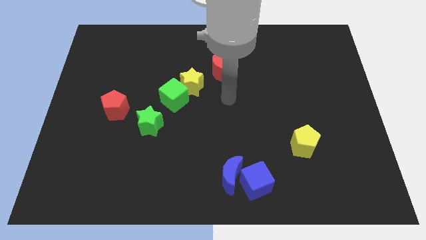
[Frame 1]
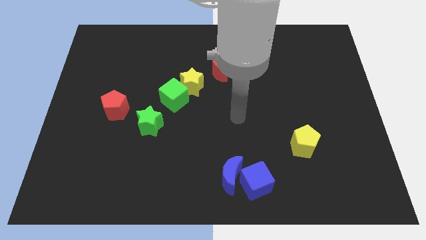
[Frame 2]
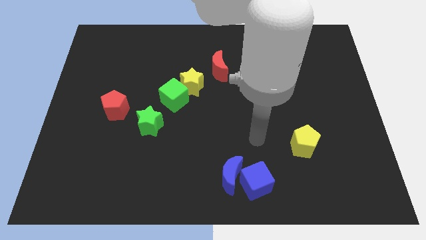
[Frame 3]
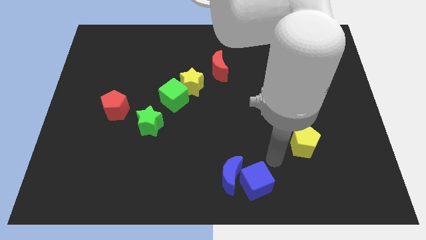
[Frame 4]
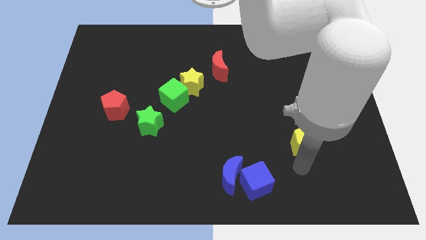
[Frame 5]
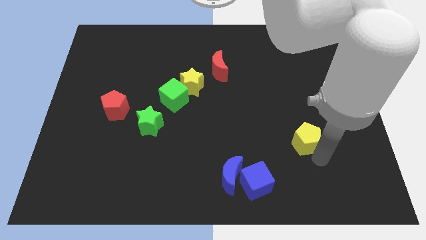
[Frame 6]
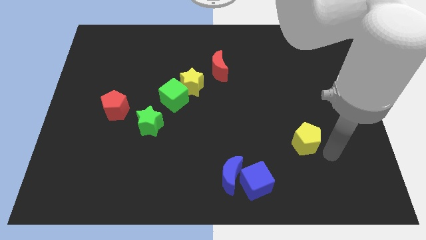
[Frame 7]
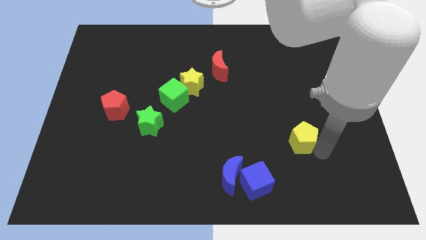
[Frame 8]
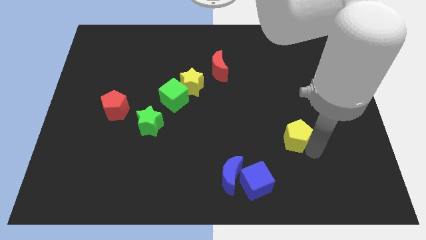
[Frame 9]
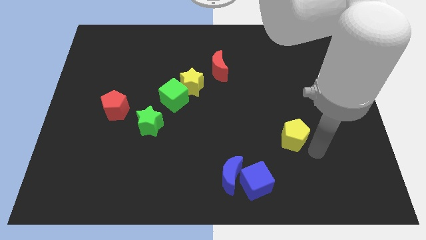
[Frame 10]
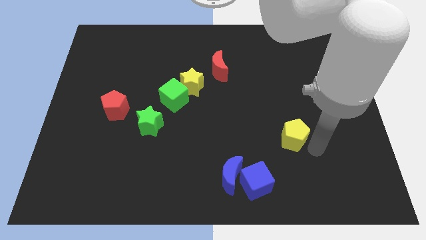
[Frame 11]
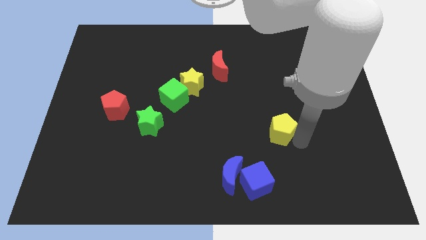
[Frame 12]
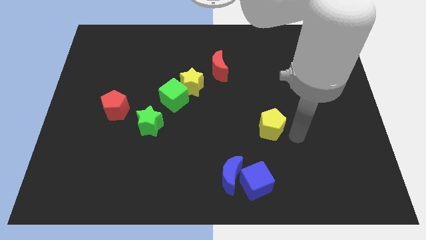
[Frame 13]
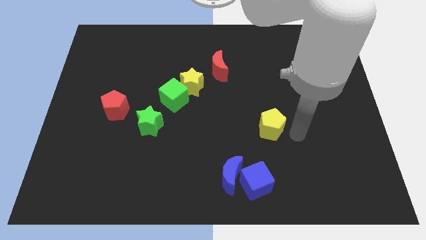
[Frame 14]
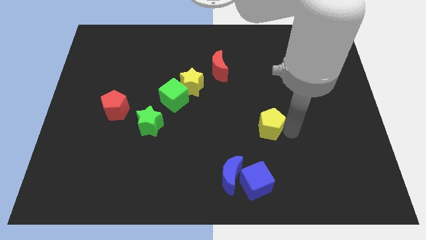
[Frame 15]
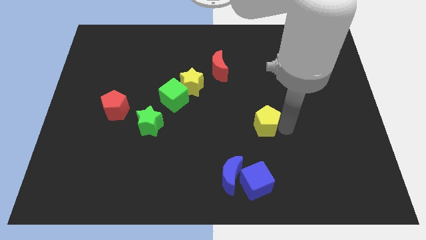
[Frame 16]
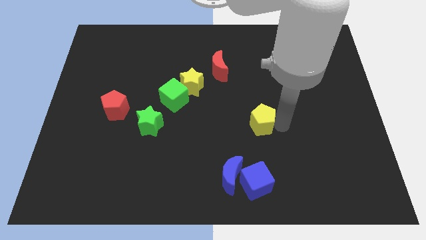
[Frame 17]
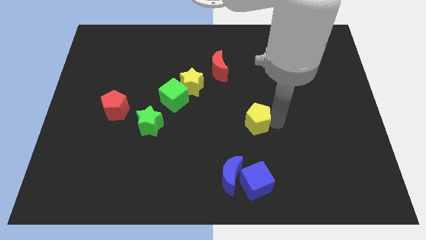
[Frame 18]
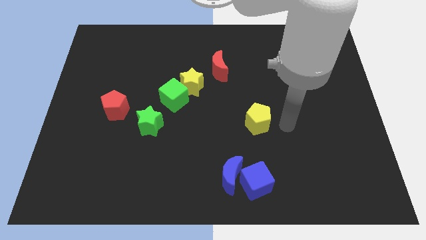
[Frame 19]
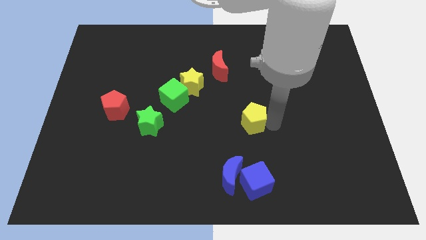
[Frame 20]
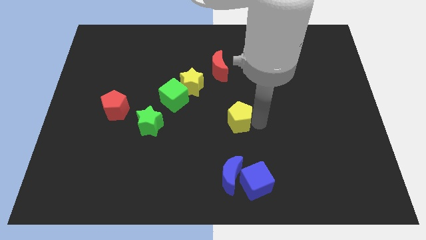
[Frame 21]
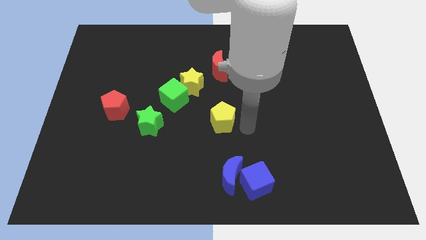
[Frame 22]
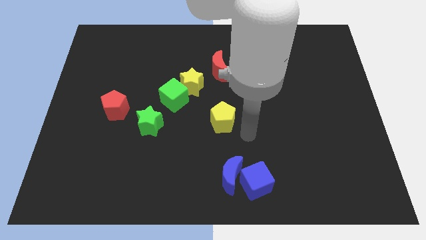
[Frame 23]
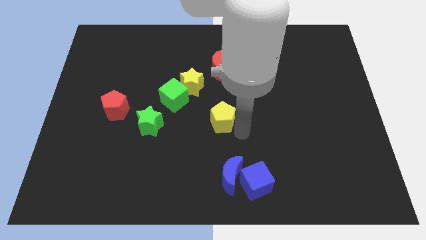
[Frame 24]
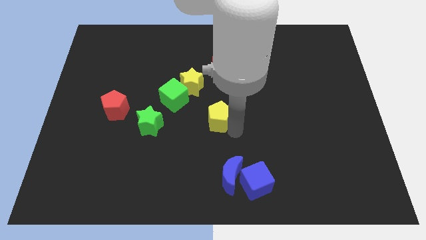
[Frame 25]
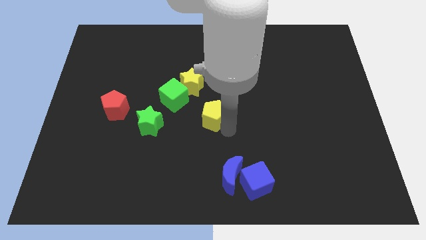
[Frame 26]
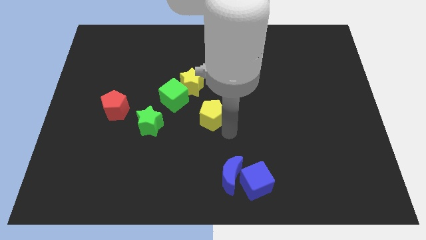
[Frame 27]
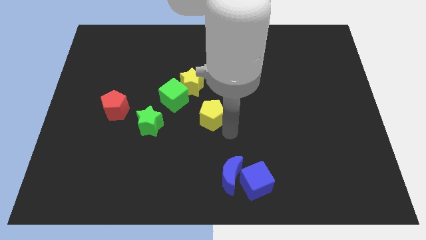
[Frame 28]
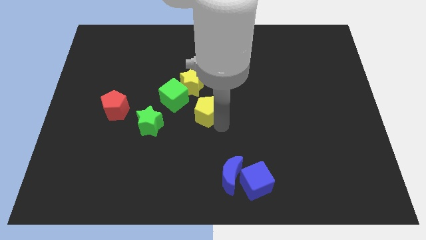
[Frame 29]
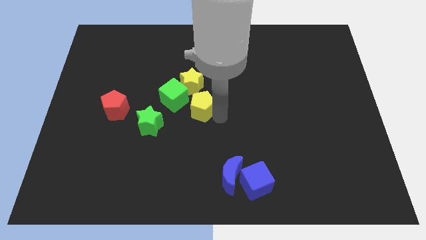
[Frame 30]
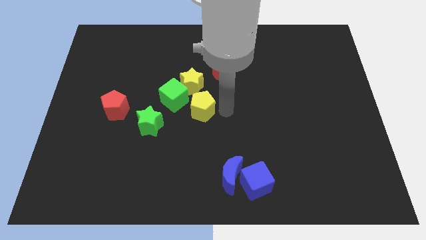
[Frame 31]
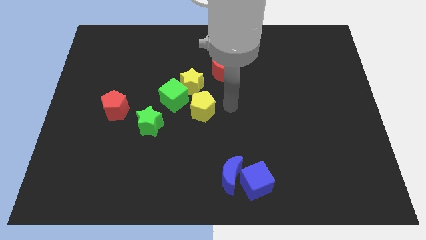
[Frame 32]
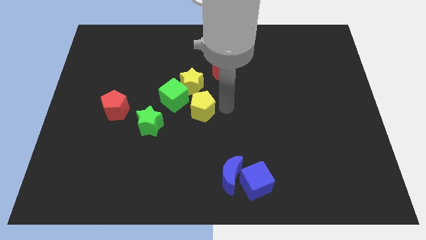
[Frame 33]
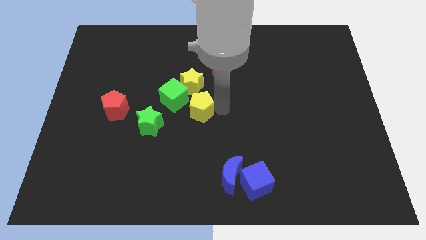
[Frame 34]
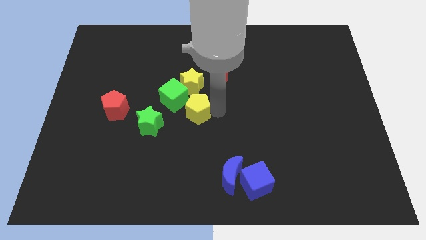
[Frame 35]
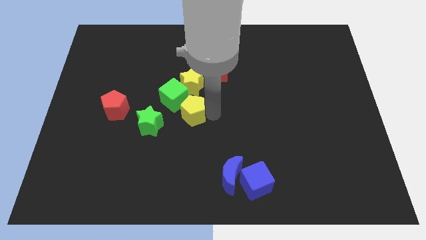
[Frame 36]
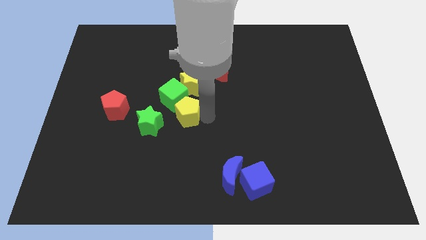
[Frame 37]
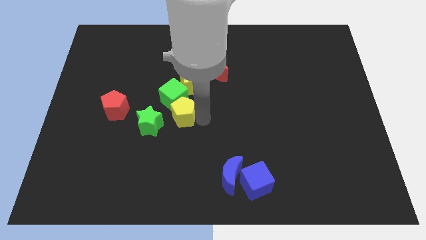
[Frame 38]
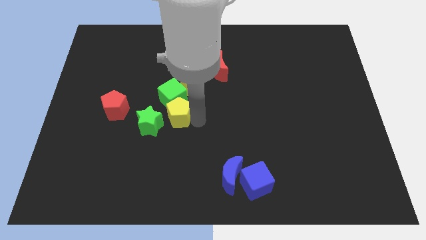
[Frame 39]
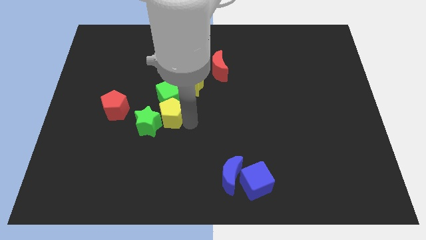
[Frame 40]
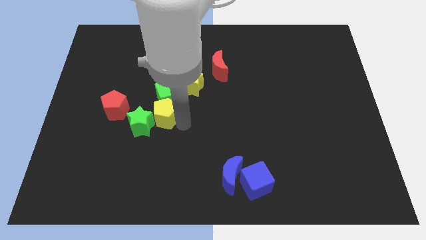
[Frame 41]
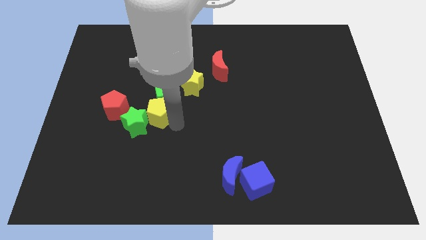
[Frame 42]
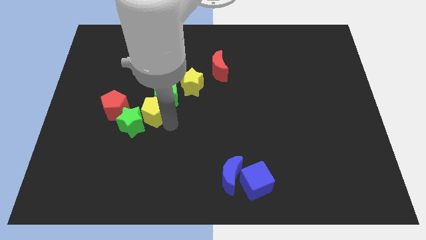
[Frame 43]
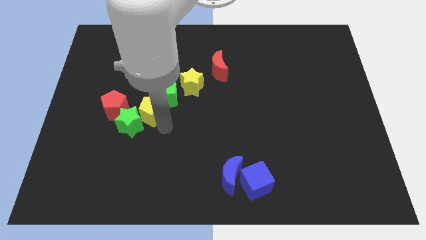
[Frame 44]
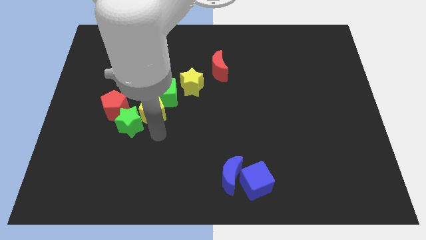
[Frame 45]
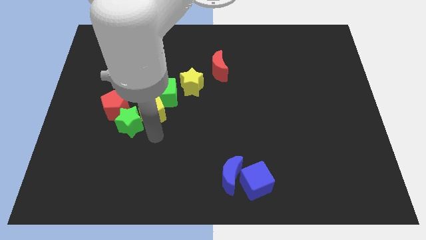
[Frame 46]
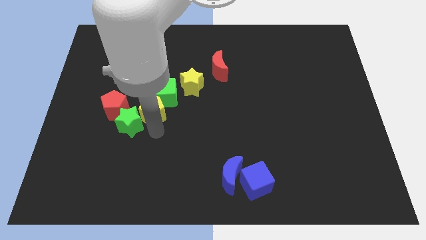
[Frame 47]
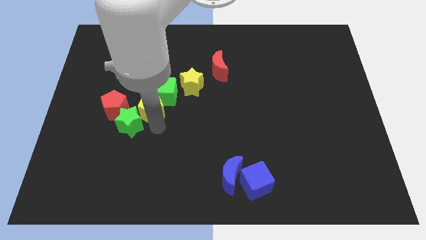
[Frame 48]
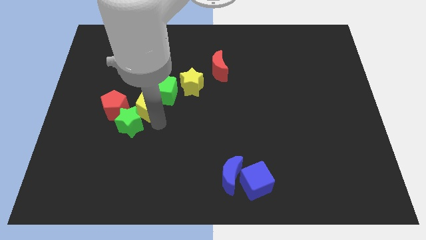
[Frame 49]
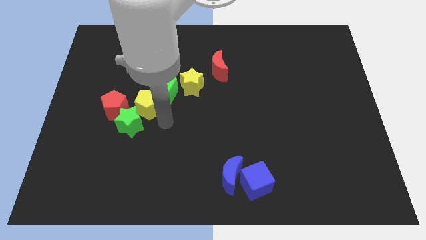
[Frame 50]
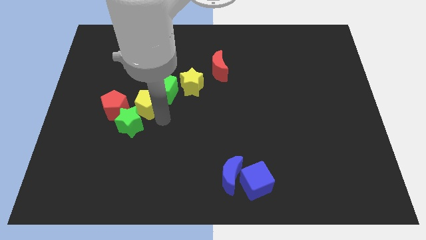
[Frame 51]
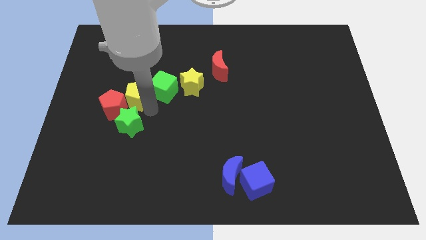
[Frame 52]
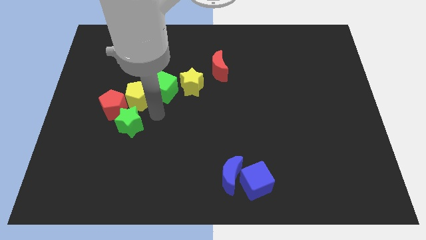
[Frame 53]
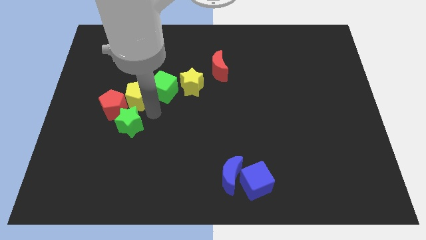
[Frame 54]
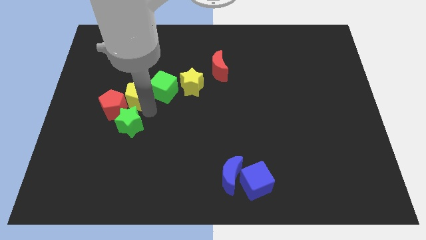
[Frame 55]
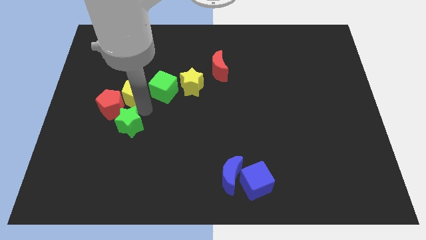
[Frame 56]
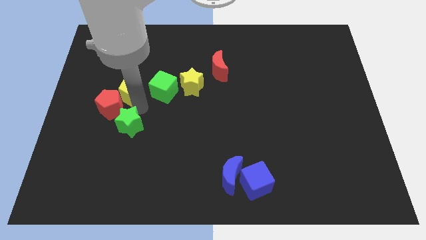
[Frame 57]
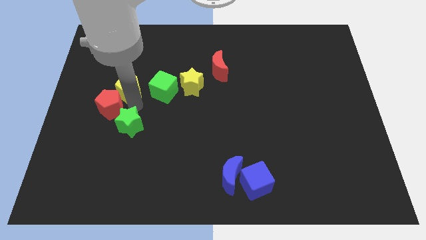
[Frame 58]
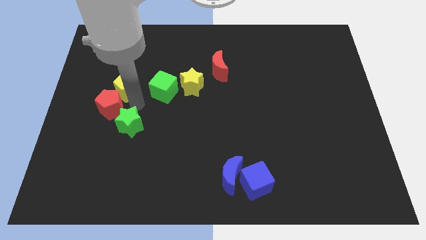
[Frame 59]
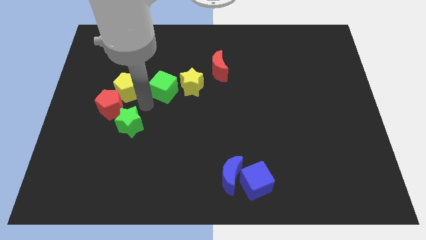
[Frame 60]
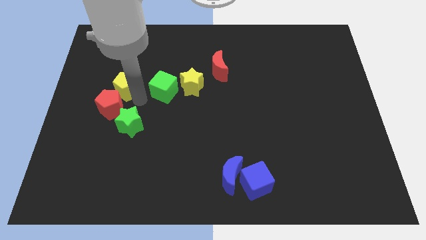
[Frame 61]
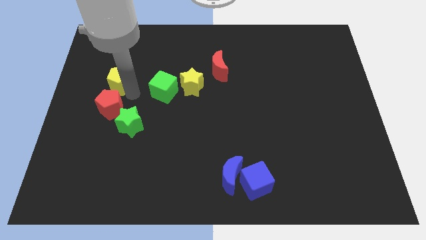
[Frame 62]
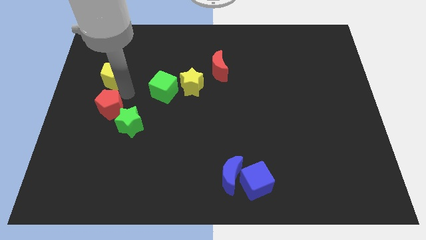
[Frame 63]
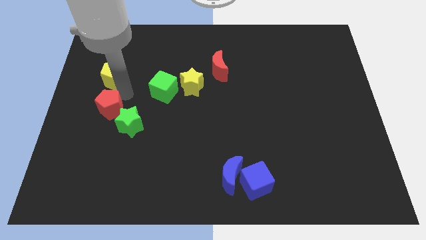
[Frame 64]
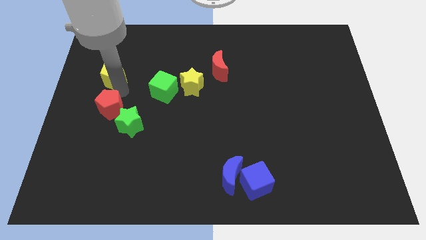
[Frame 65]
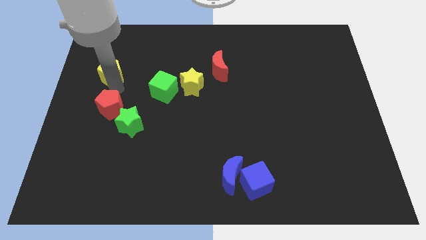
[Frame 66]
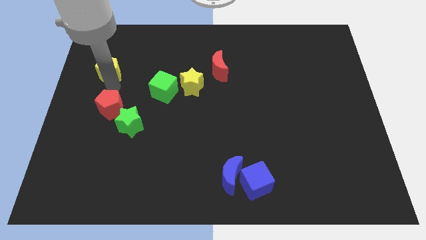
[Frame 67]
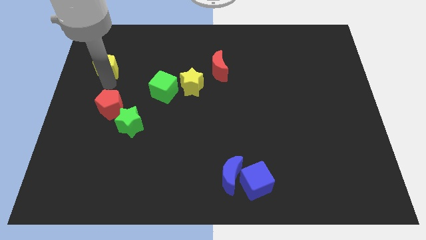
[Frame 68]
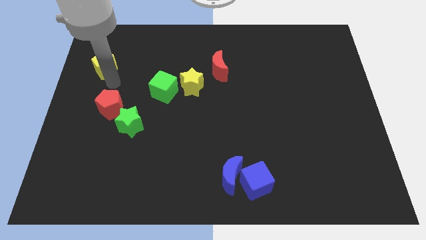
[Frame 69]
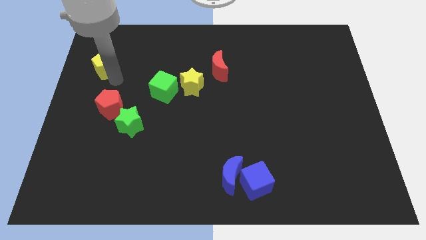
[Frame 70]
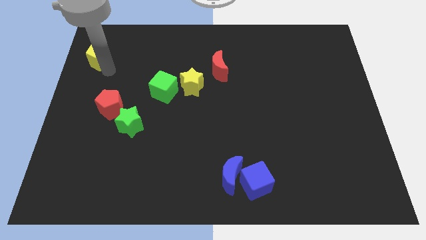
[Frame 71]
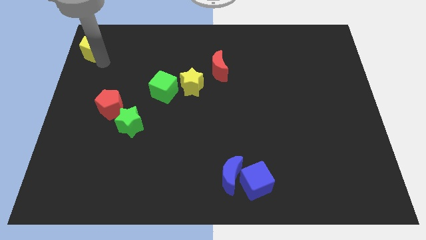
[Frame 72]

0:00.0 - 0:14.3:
move the yellow pentagon to the top left corner

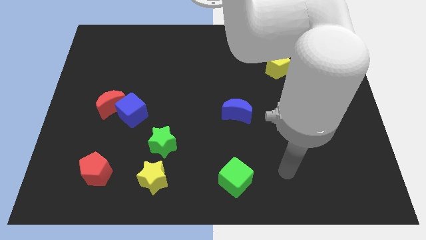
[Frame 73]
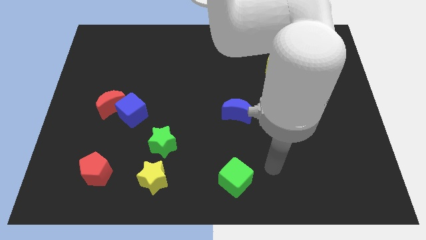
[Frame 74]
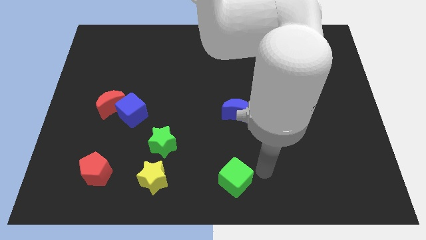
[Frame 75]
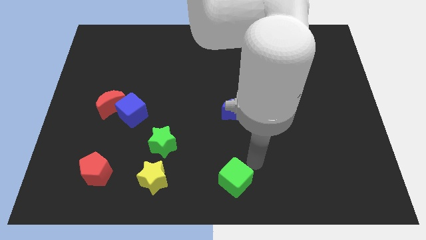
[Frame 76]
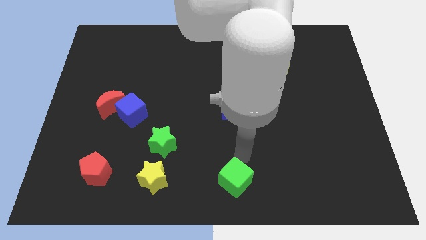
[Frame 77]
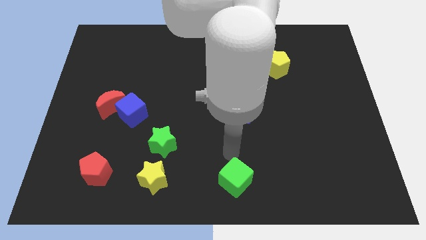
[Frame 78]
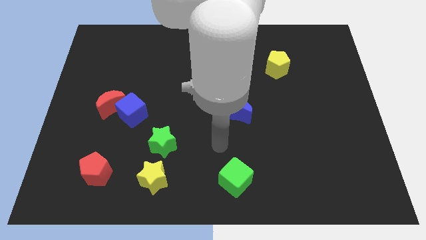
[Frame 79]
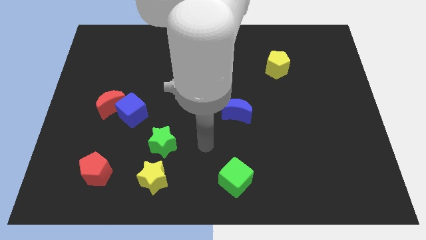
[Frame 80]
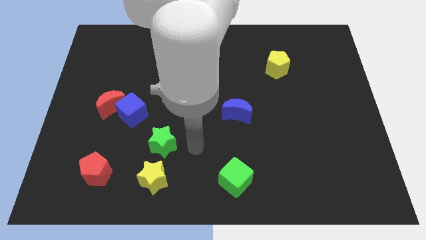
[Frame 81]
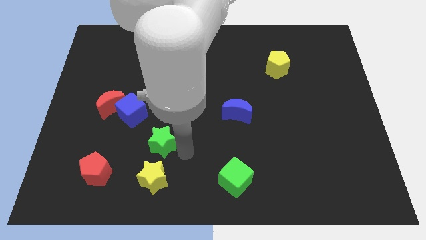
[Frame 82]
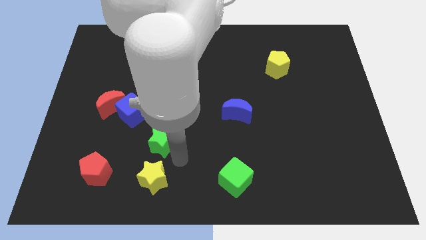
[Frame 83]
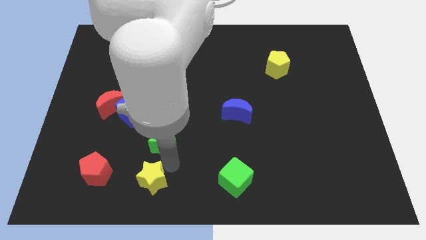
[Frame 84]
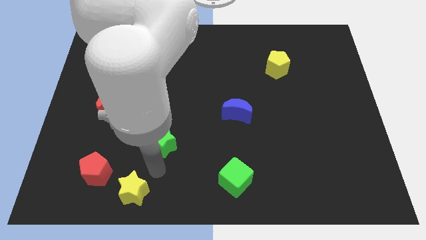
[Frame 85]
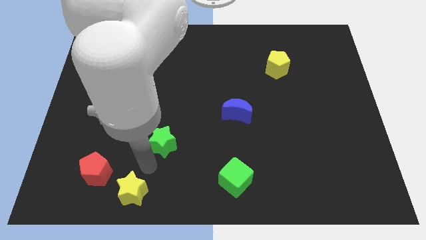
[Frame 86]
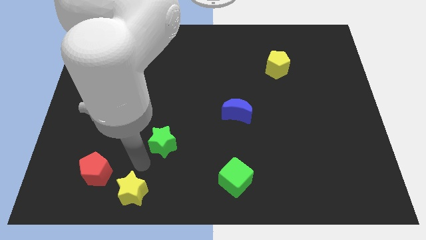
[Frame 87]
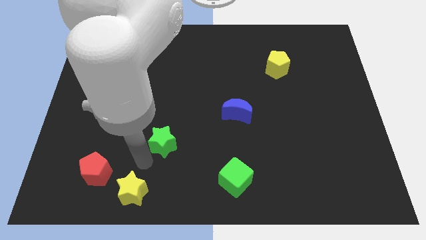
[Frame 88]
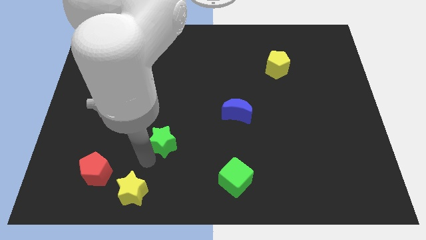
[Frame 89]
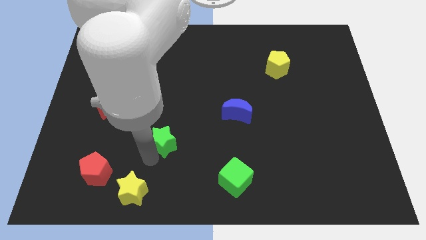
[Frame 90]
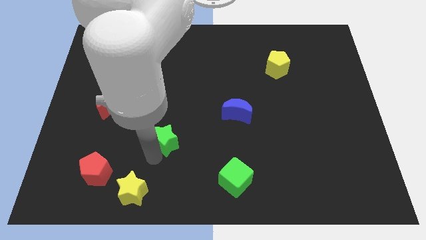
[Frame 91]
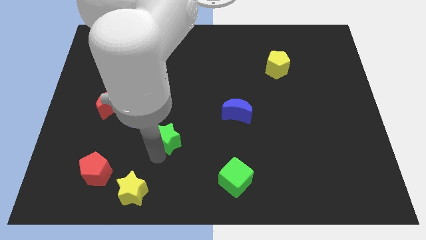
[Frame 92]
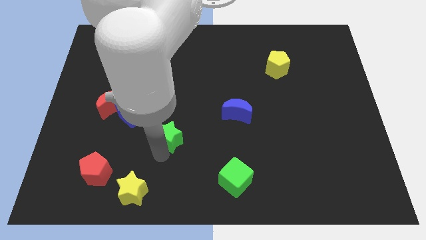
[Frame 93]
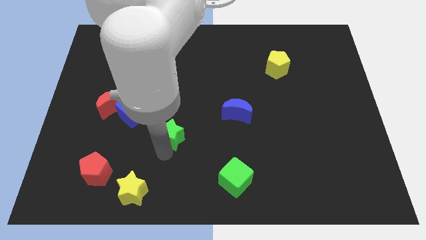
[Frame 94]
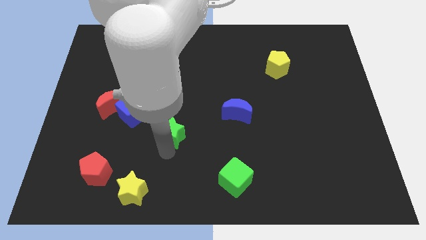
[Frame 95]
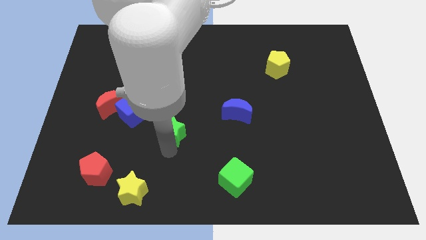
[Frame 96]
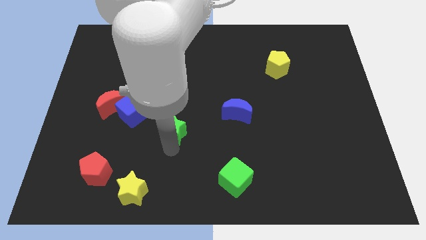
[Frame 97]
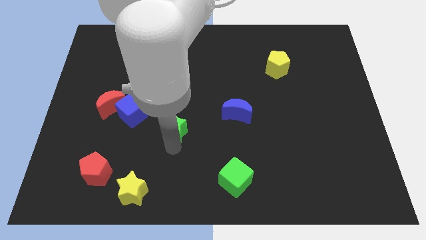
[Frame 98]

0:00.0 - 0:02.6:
move the green star to the middle
